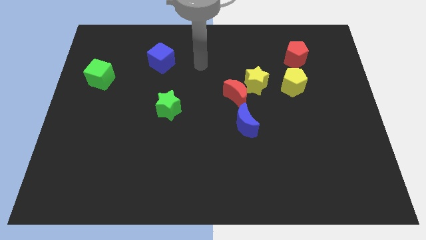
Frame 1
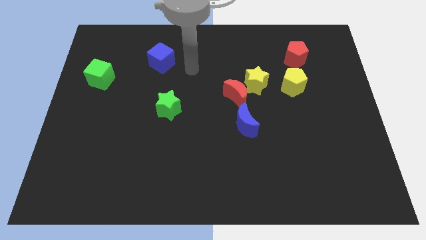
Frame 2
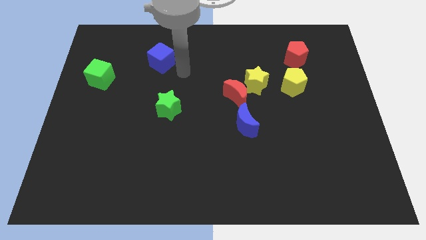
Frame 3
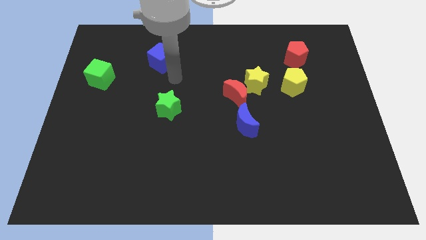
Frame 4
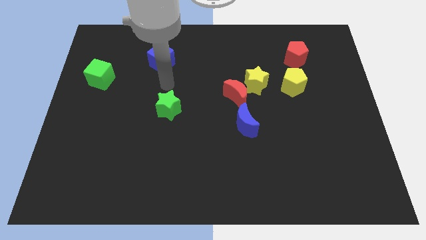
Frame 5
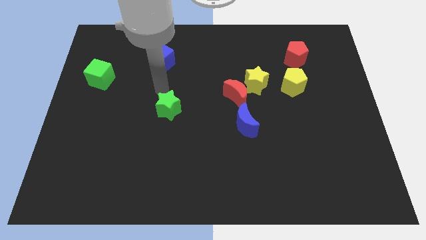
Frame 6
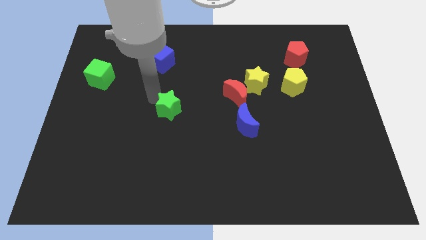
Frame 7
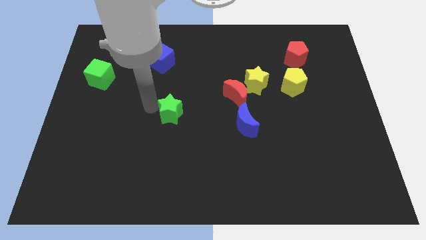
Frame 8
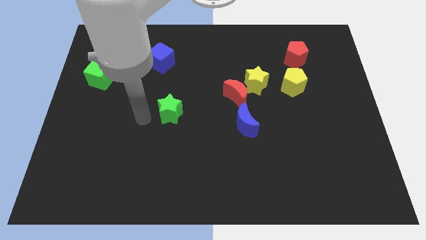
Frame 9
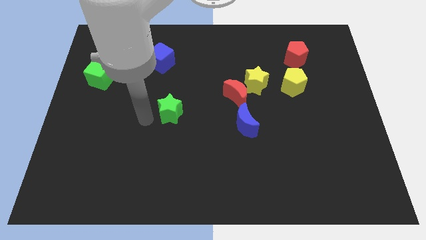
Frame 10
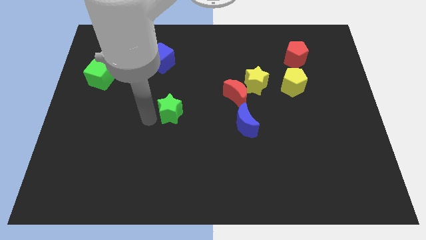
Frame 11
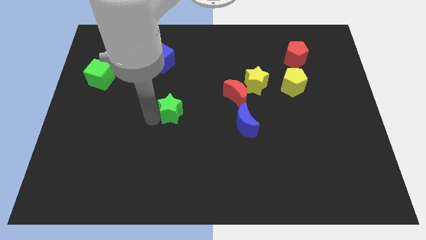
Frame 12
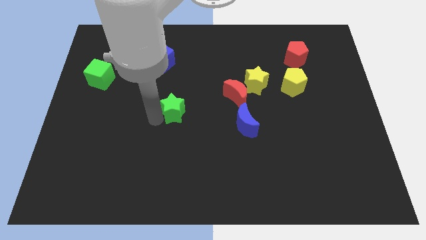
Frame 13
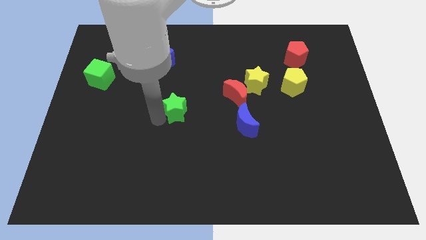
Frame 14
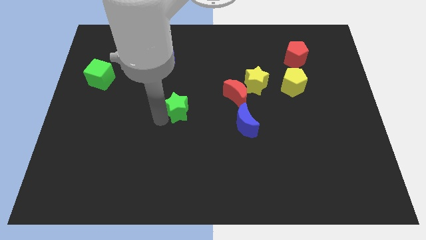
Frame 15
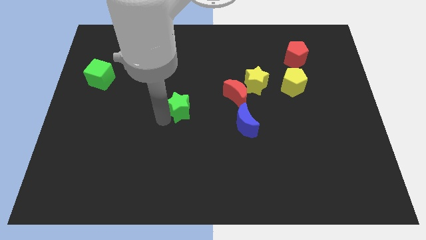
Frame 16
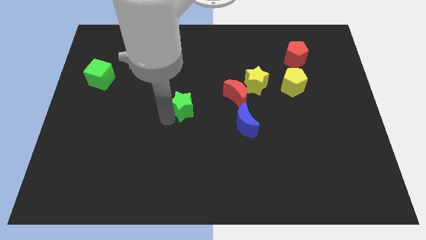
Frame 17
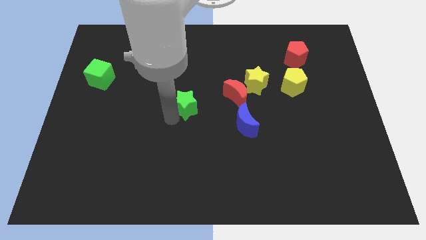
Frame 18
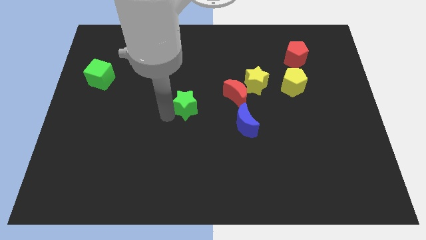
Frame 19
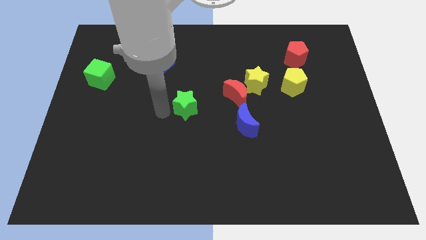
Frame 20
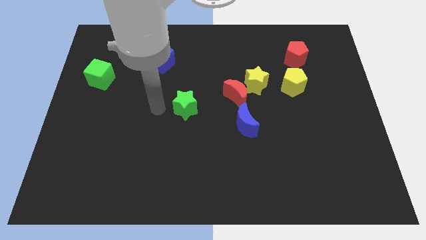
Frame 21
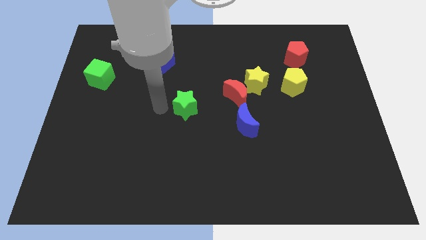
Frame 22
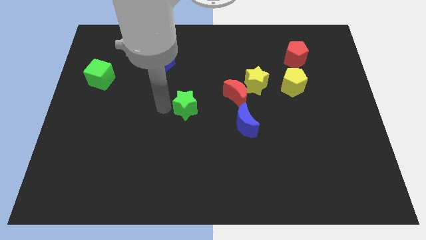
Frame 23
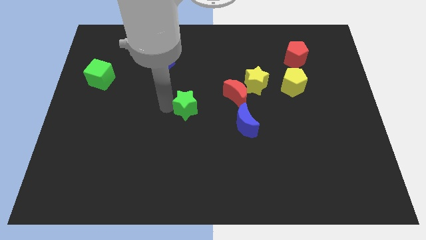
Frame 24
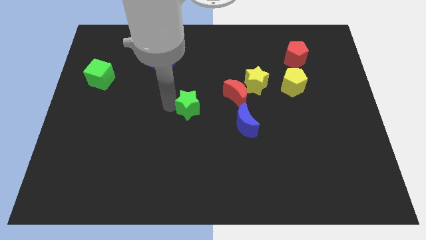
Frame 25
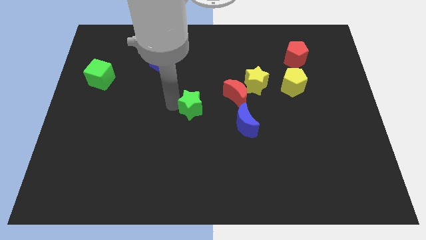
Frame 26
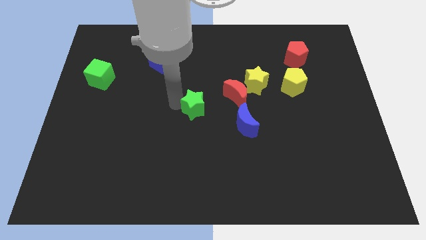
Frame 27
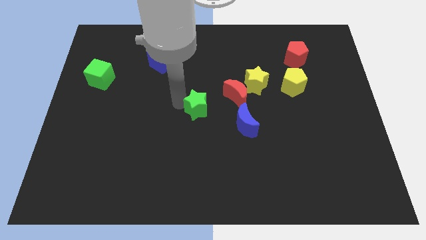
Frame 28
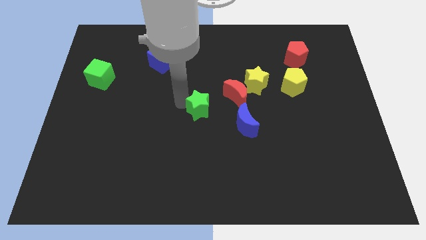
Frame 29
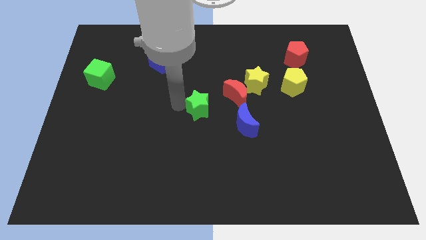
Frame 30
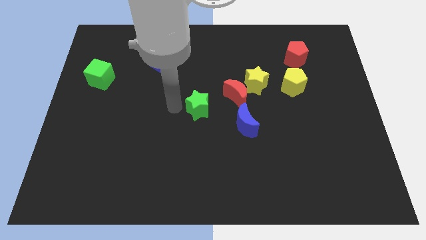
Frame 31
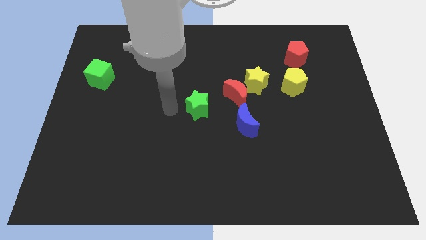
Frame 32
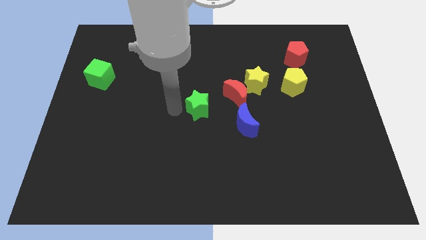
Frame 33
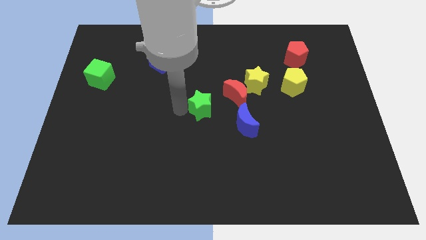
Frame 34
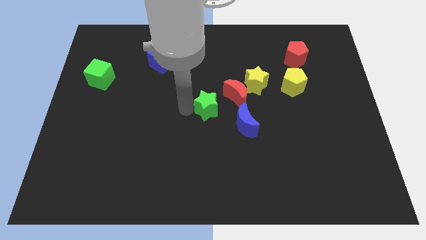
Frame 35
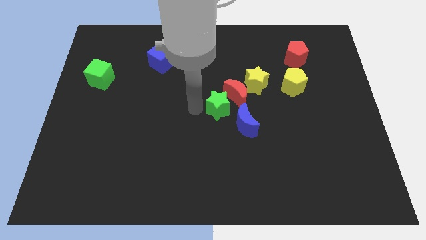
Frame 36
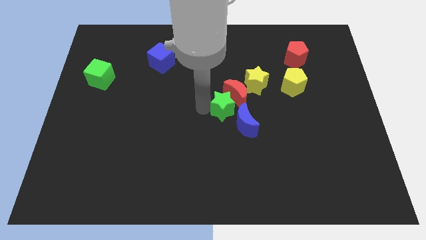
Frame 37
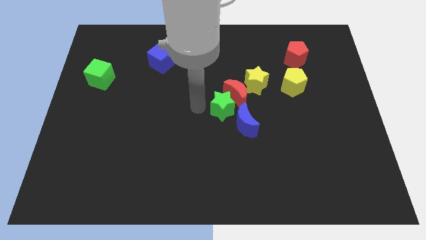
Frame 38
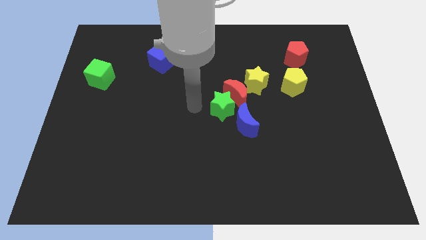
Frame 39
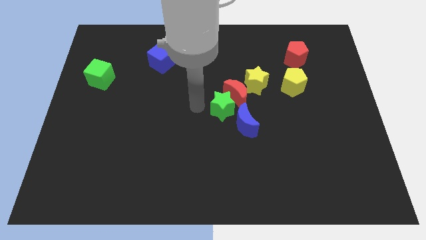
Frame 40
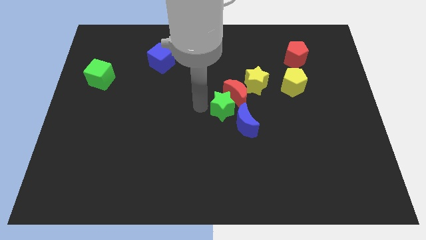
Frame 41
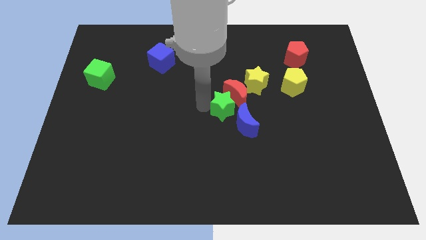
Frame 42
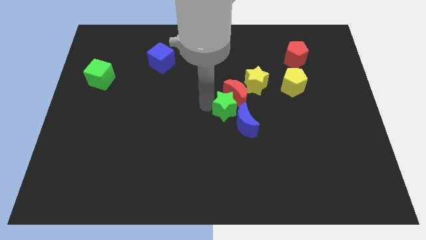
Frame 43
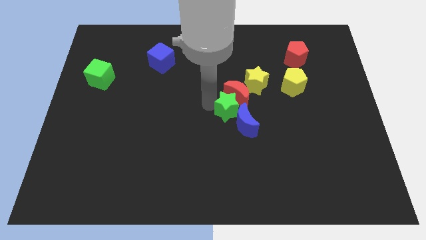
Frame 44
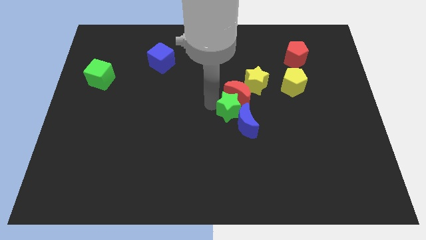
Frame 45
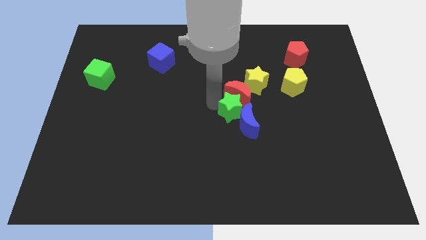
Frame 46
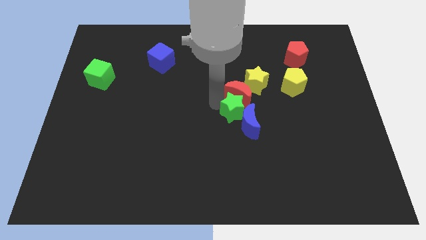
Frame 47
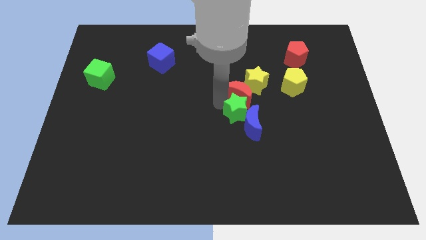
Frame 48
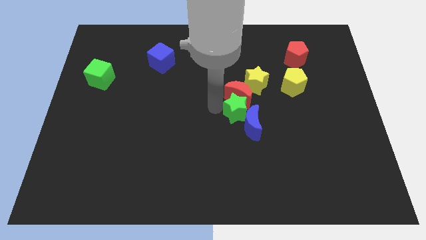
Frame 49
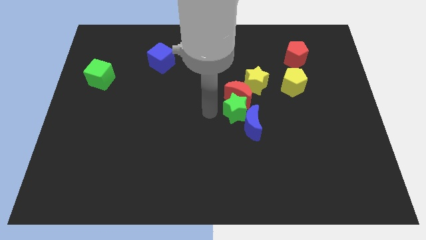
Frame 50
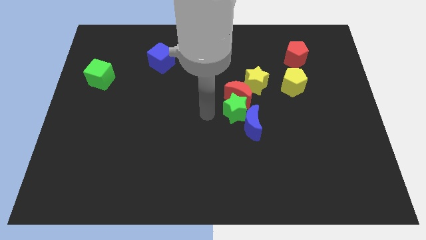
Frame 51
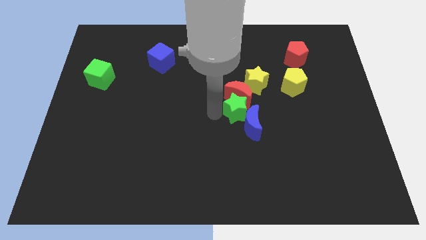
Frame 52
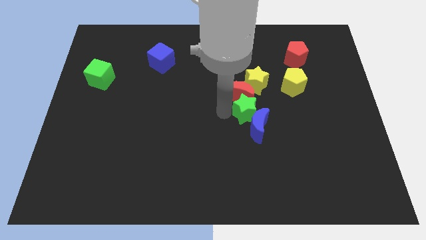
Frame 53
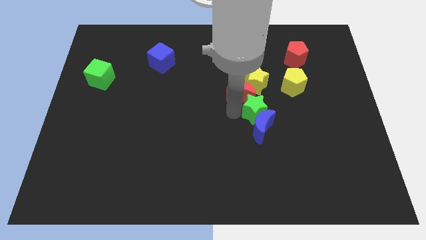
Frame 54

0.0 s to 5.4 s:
slide the green star to the top right of the blue moon

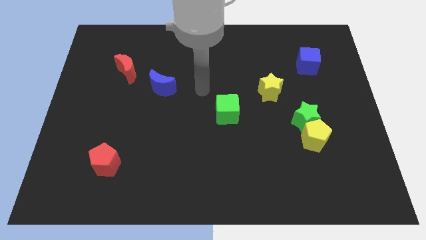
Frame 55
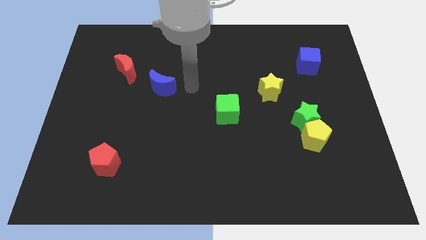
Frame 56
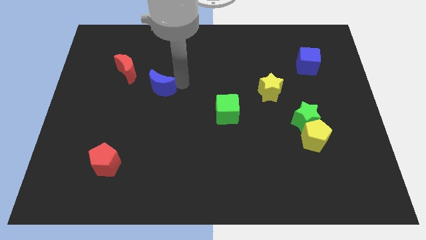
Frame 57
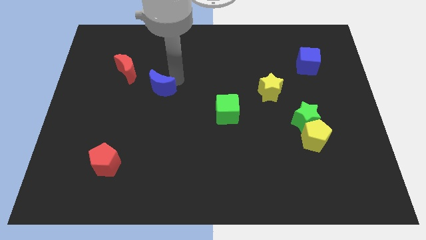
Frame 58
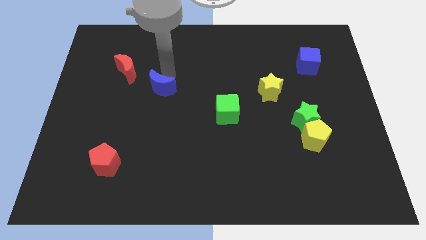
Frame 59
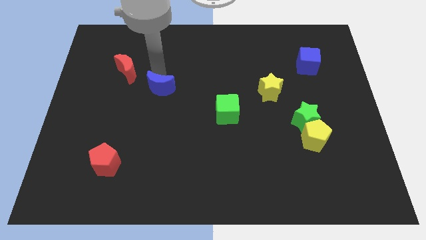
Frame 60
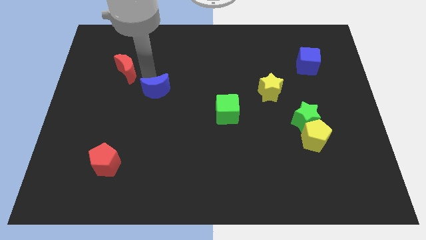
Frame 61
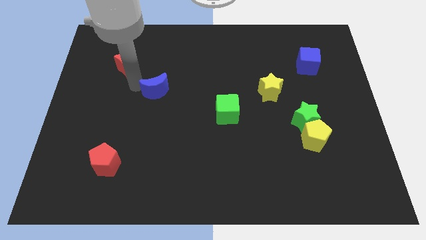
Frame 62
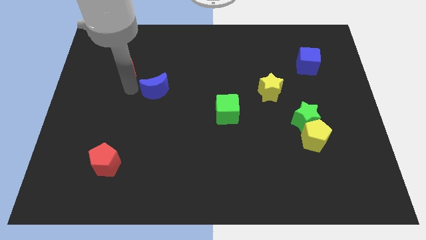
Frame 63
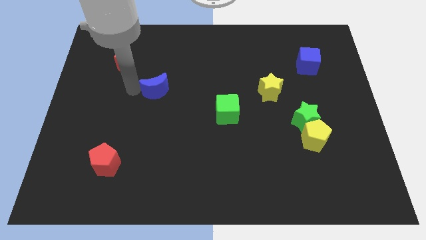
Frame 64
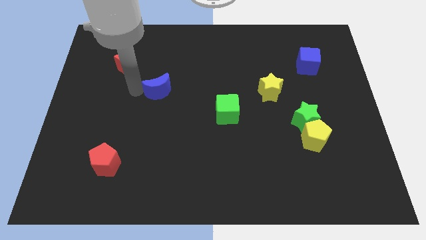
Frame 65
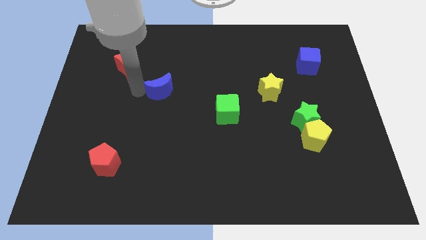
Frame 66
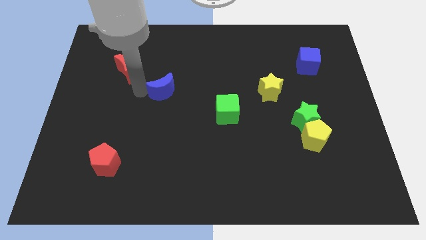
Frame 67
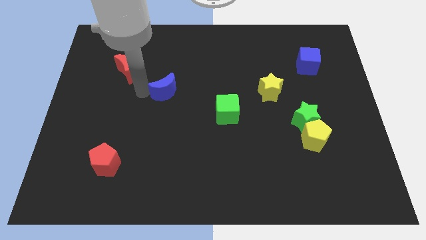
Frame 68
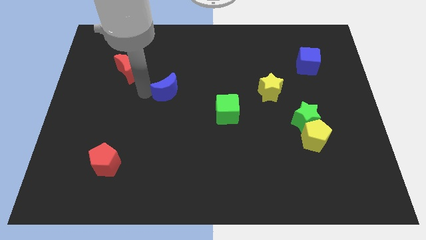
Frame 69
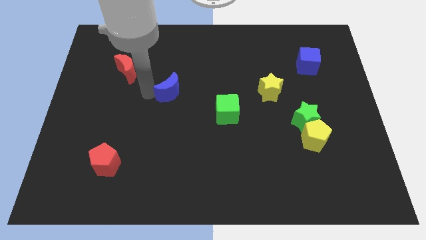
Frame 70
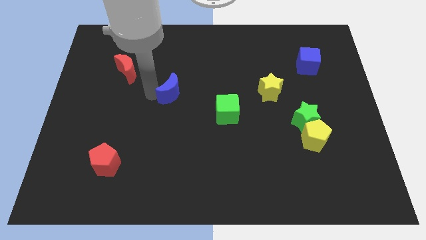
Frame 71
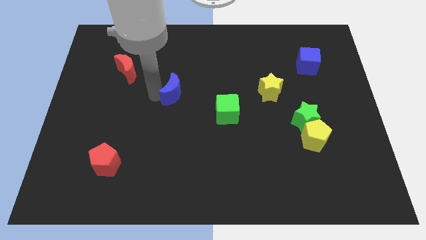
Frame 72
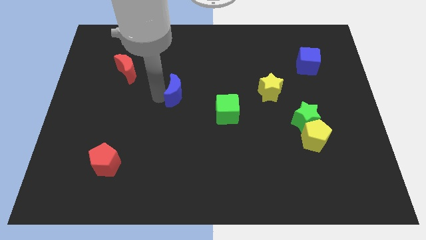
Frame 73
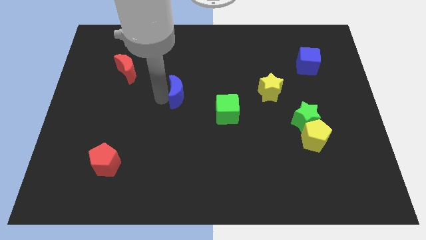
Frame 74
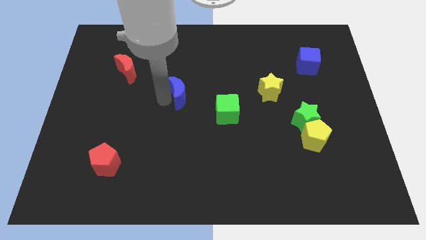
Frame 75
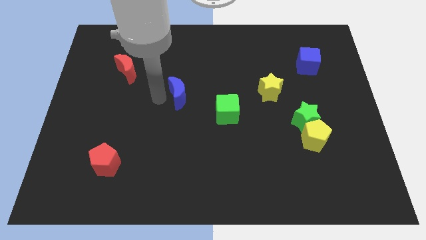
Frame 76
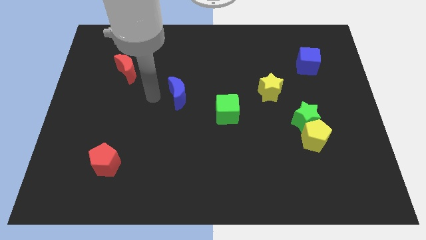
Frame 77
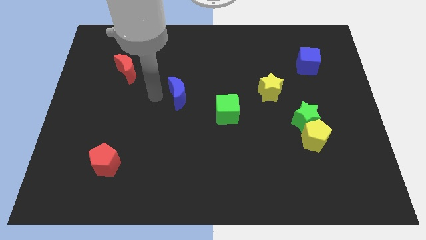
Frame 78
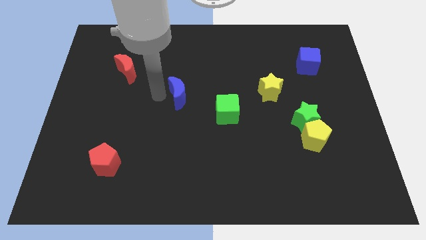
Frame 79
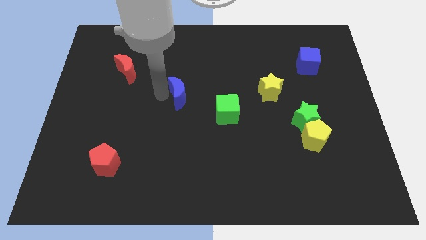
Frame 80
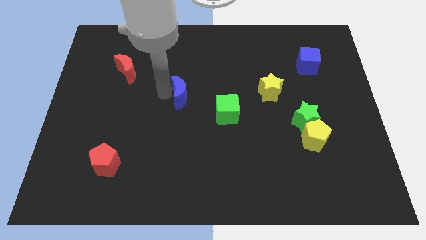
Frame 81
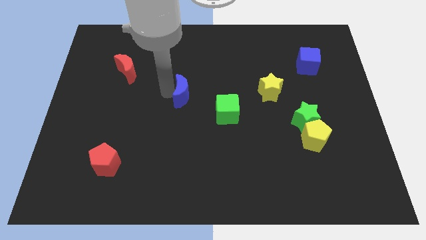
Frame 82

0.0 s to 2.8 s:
put the blue moon to the top left of the green cube
